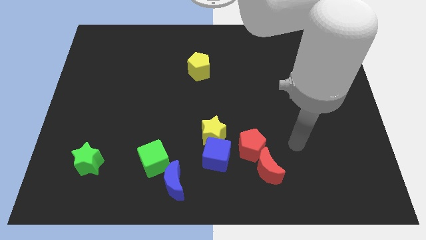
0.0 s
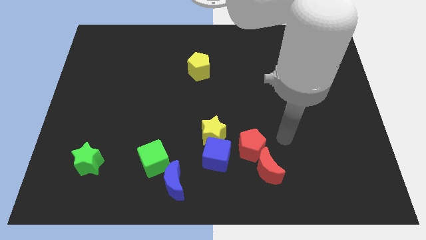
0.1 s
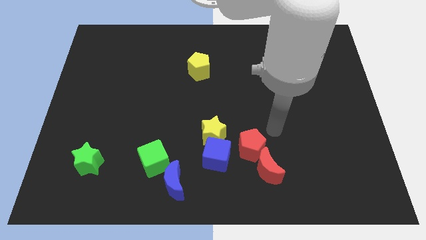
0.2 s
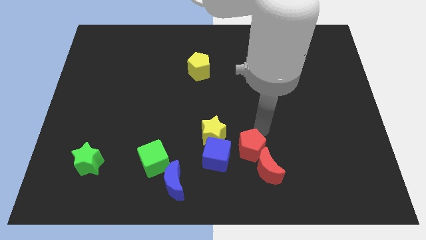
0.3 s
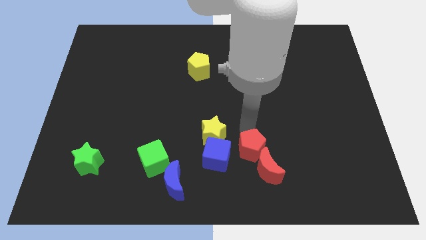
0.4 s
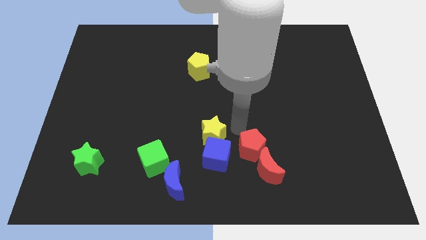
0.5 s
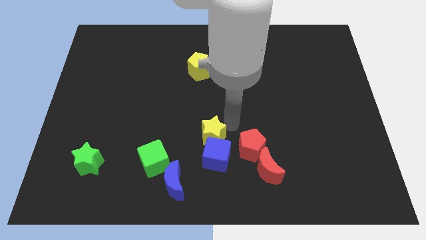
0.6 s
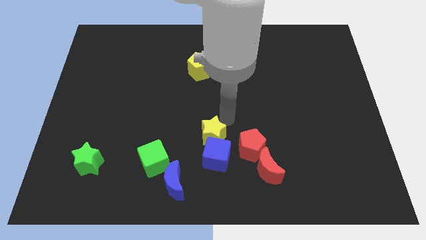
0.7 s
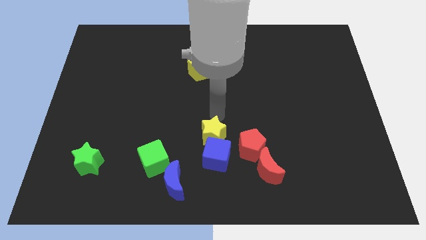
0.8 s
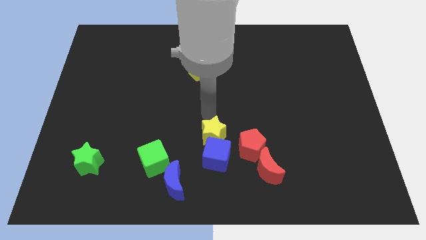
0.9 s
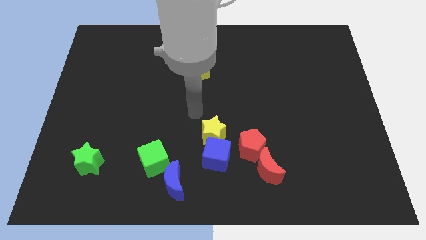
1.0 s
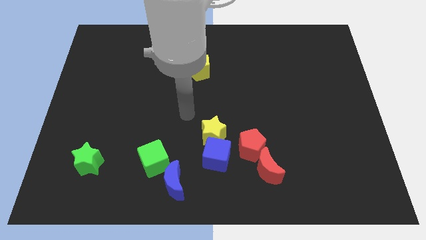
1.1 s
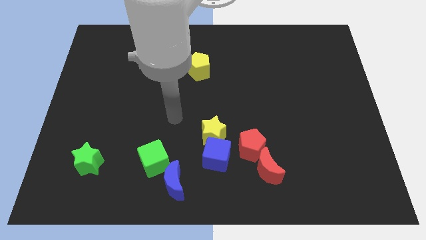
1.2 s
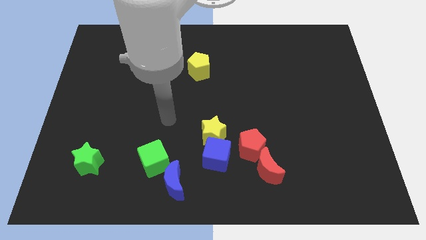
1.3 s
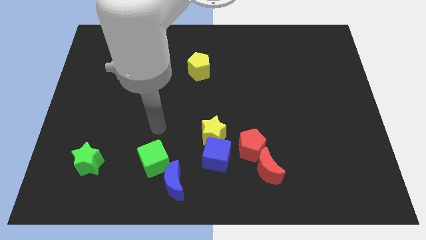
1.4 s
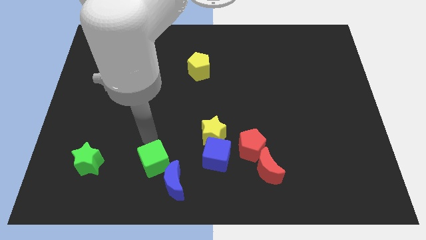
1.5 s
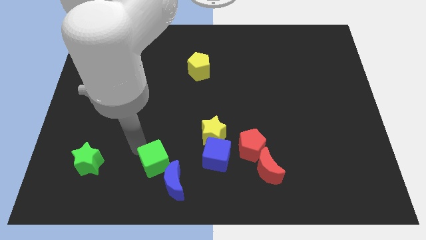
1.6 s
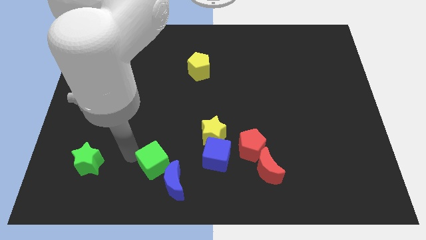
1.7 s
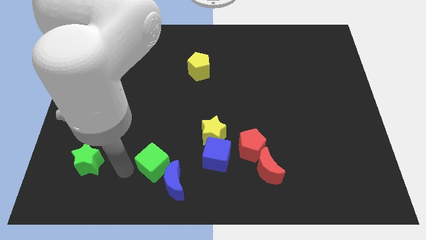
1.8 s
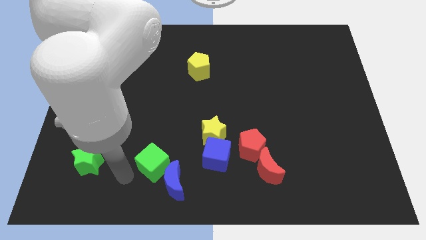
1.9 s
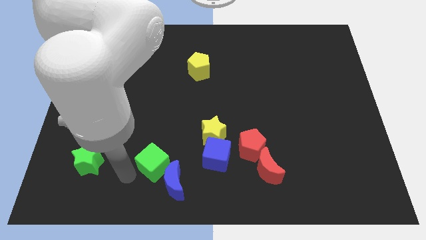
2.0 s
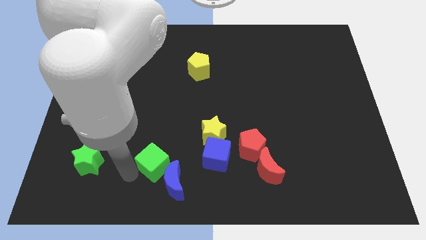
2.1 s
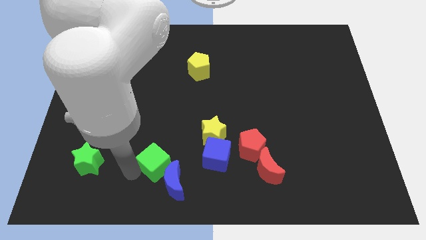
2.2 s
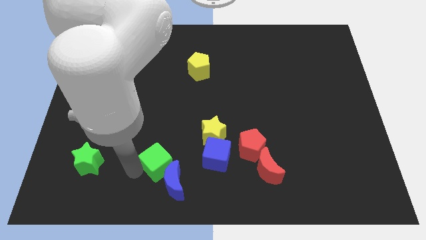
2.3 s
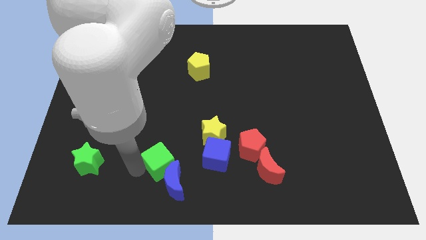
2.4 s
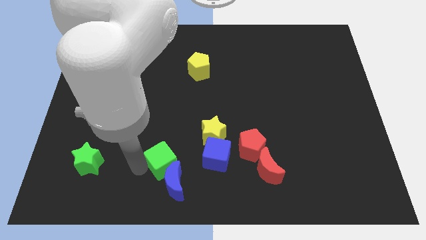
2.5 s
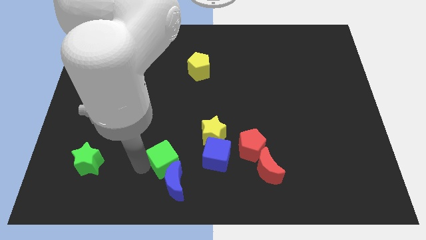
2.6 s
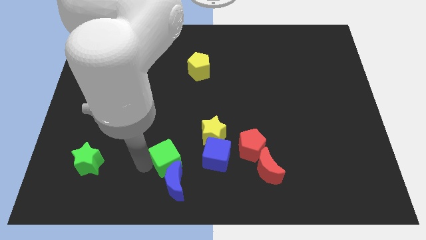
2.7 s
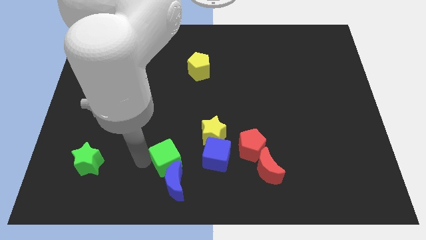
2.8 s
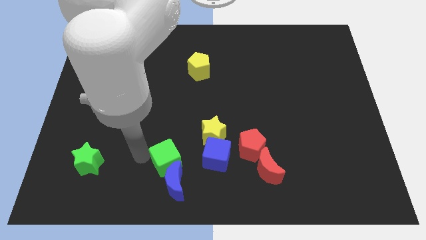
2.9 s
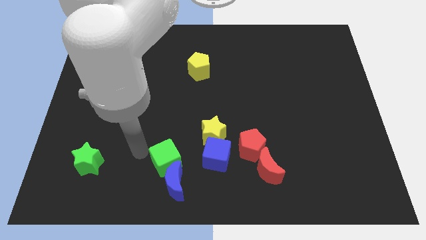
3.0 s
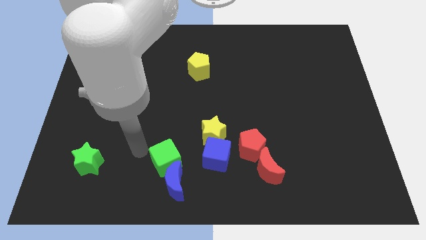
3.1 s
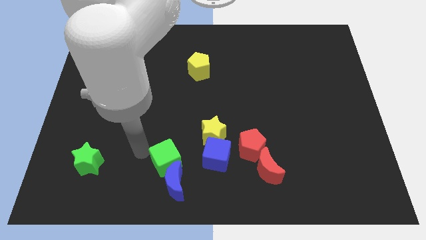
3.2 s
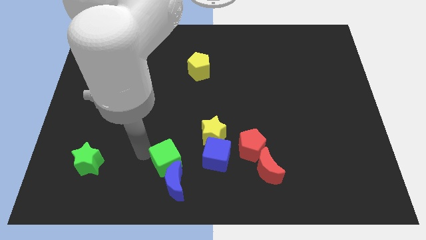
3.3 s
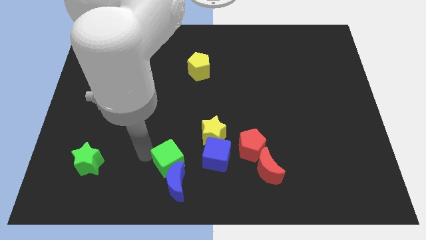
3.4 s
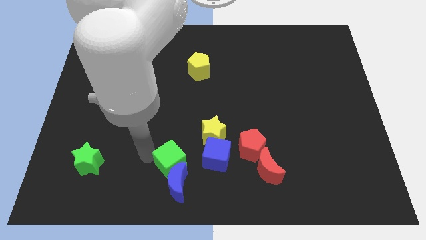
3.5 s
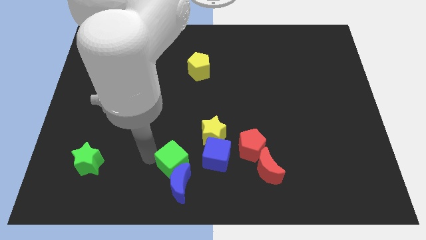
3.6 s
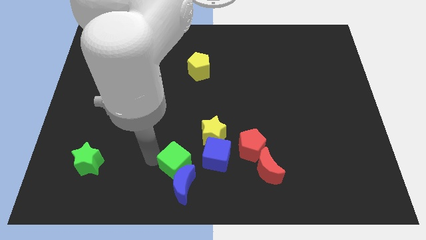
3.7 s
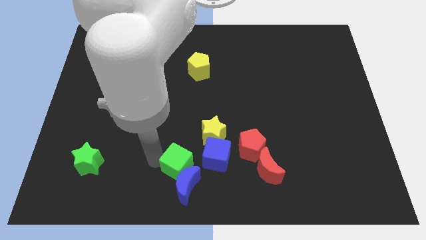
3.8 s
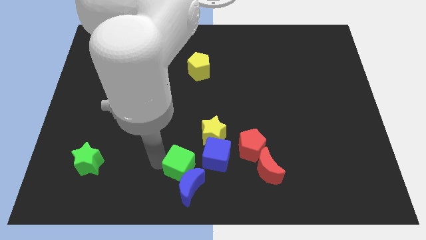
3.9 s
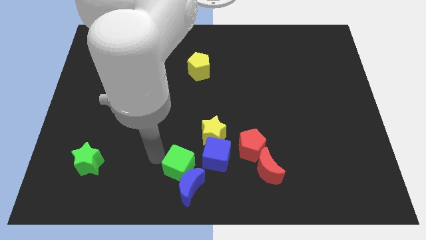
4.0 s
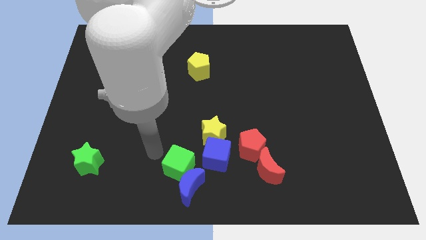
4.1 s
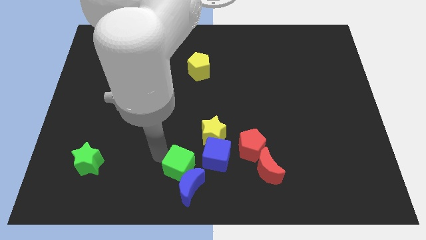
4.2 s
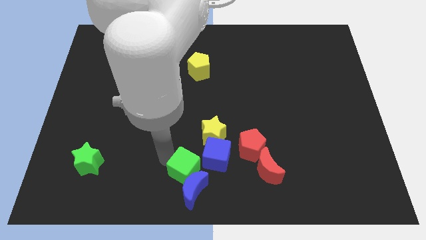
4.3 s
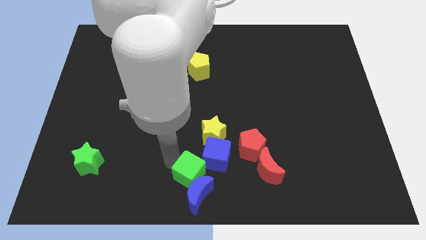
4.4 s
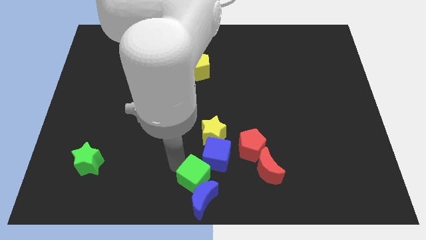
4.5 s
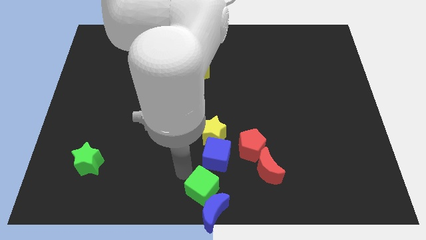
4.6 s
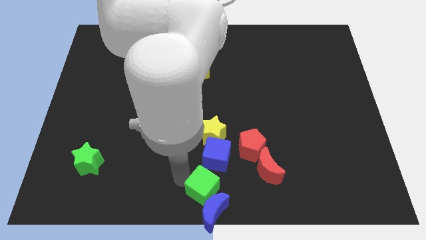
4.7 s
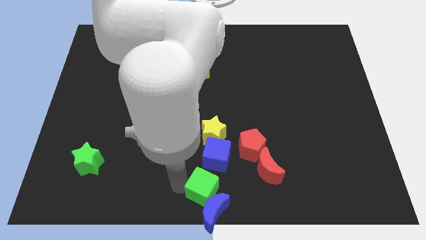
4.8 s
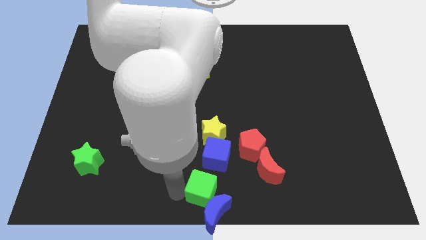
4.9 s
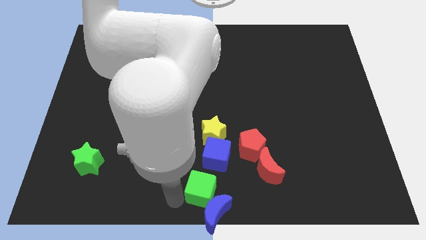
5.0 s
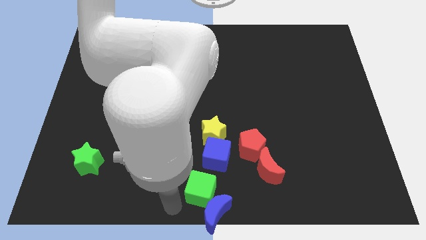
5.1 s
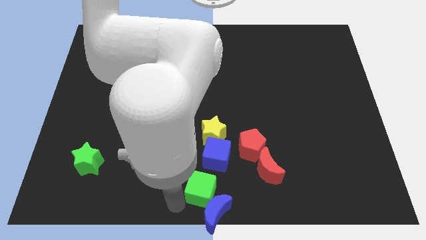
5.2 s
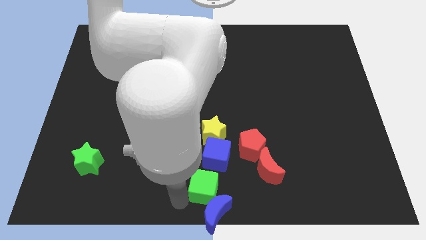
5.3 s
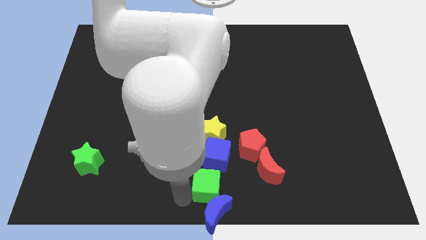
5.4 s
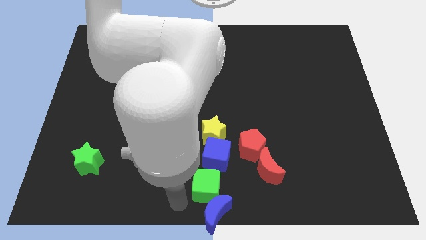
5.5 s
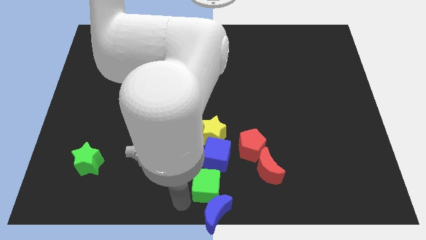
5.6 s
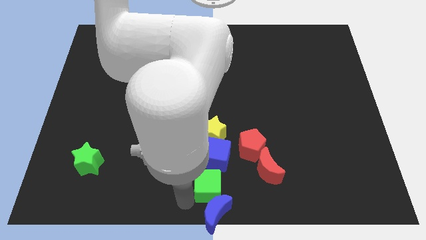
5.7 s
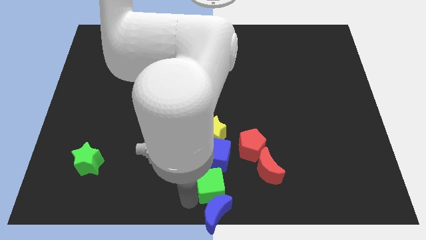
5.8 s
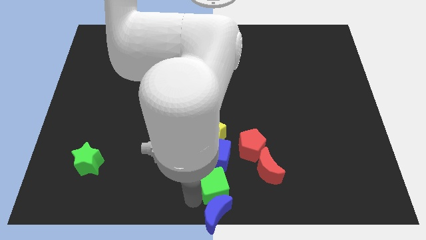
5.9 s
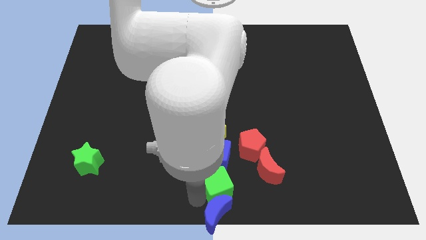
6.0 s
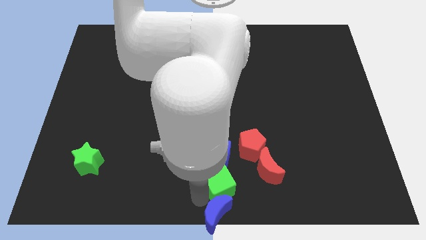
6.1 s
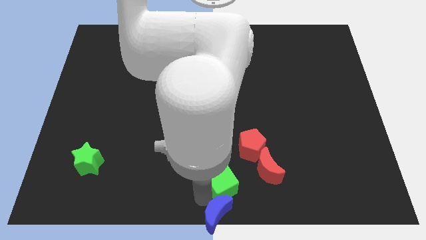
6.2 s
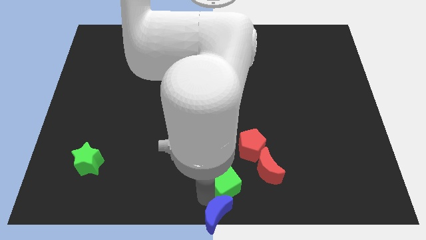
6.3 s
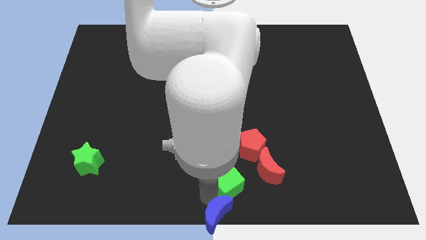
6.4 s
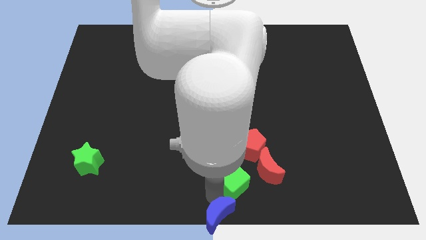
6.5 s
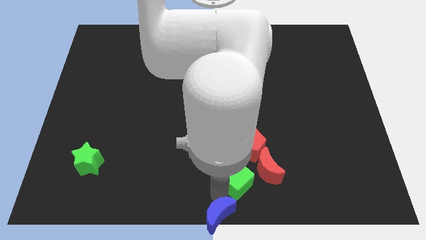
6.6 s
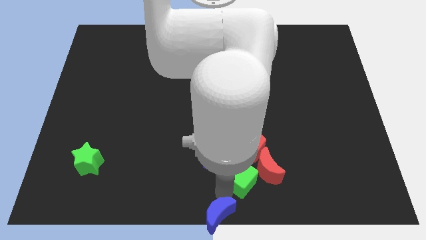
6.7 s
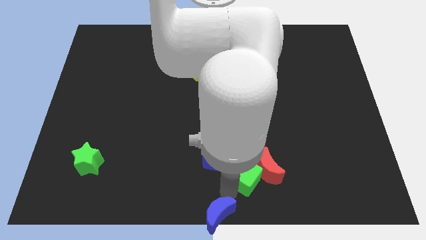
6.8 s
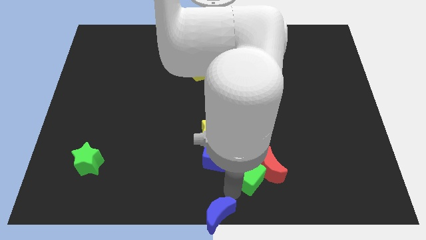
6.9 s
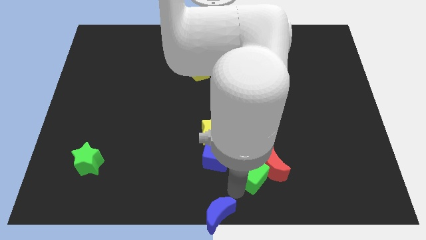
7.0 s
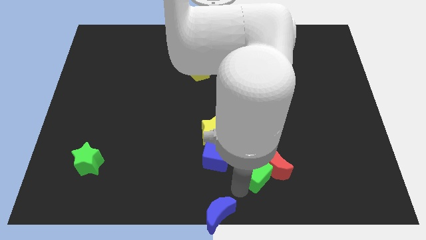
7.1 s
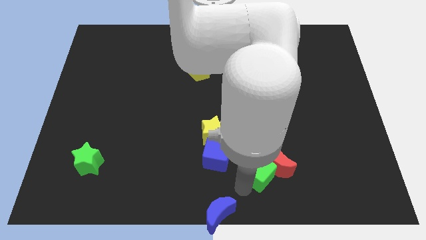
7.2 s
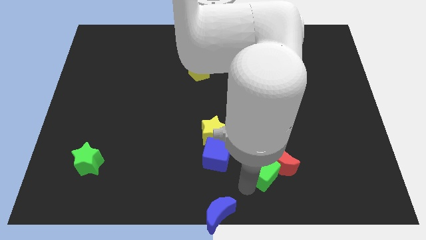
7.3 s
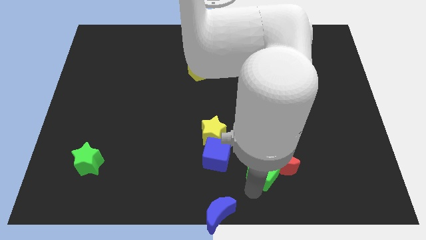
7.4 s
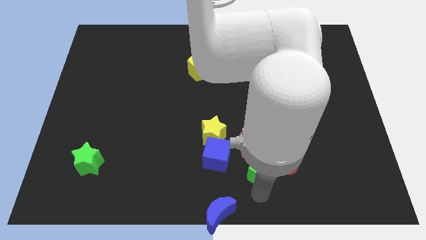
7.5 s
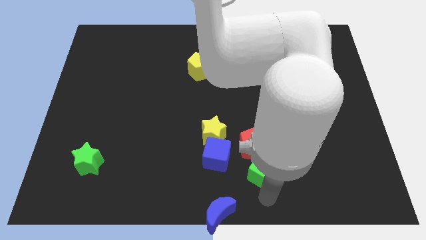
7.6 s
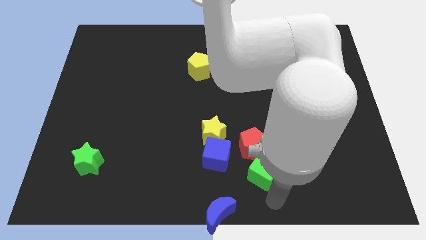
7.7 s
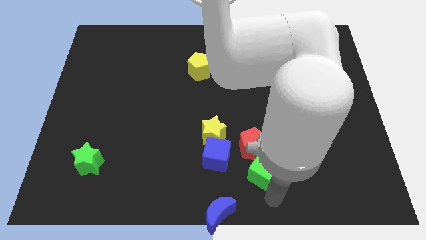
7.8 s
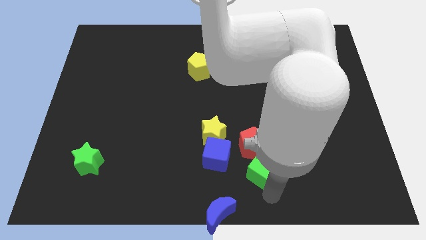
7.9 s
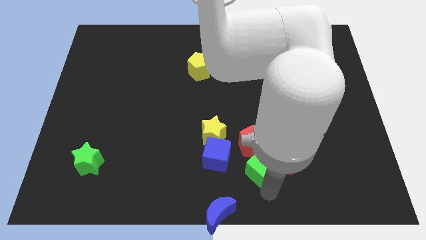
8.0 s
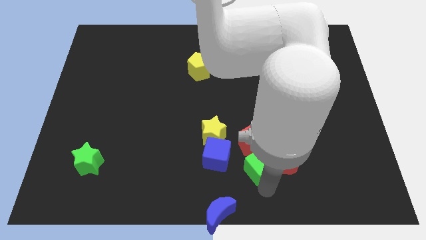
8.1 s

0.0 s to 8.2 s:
slide the green cube next to the red pentagon
